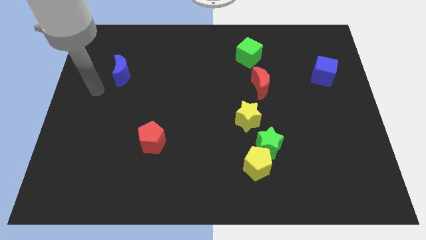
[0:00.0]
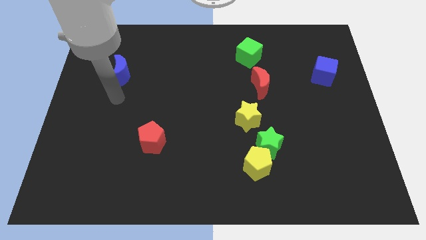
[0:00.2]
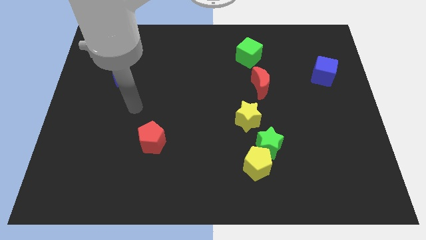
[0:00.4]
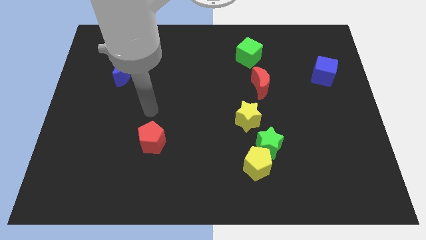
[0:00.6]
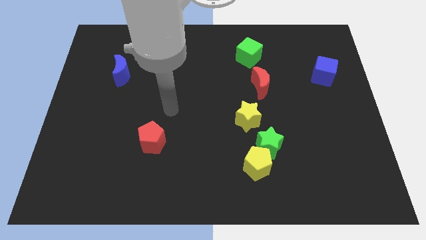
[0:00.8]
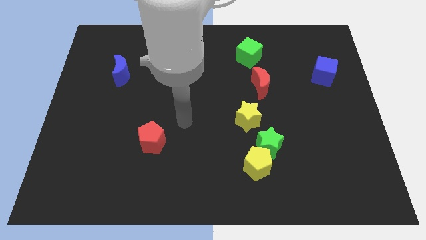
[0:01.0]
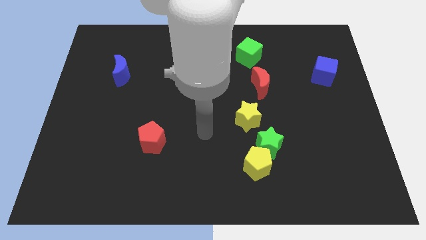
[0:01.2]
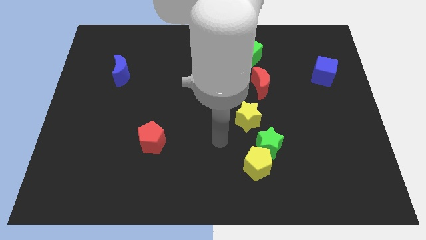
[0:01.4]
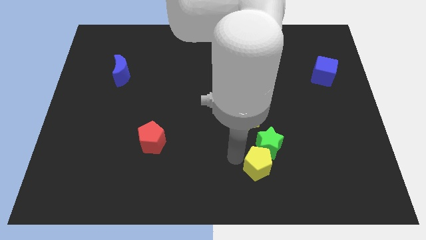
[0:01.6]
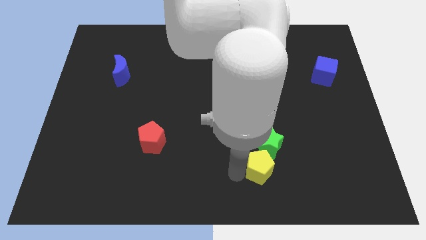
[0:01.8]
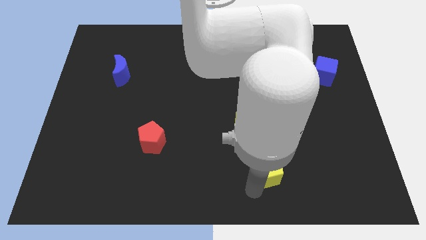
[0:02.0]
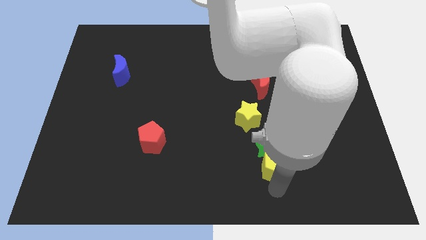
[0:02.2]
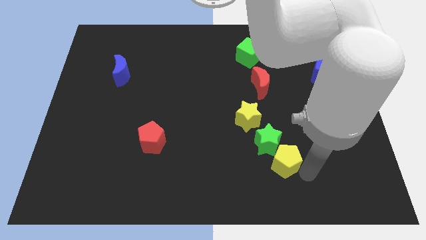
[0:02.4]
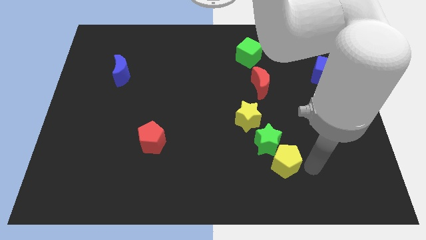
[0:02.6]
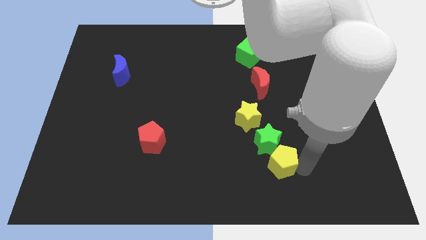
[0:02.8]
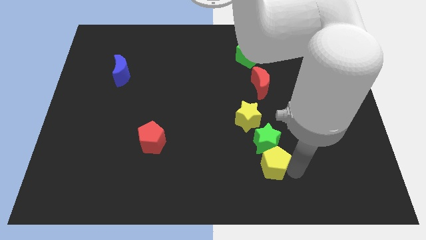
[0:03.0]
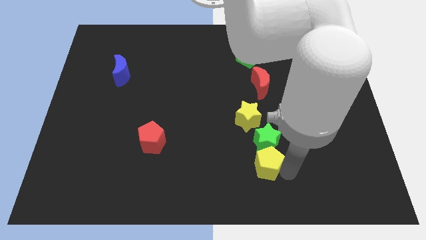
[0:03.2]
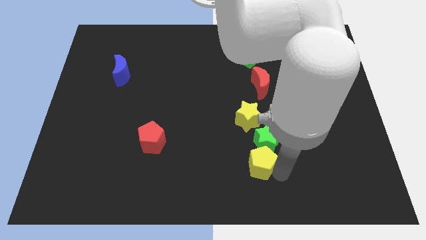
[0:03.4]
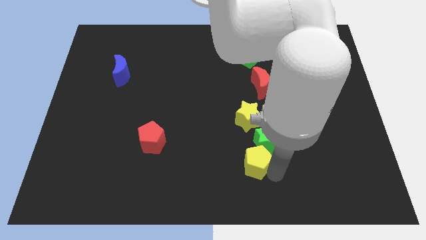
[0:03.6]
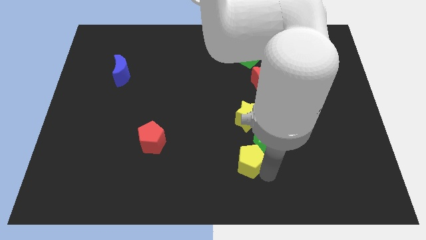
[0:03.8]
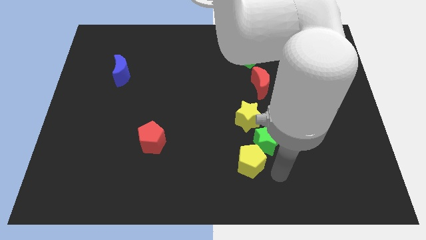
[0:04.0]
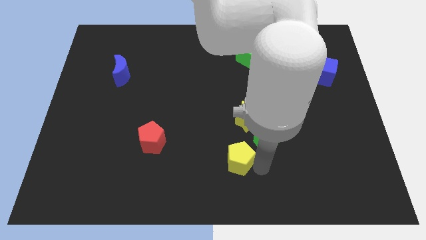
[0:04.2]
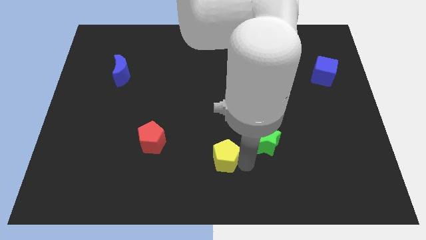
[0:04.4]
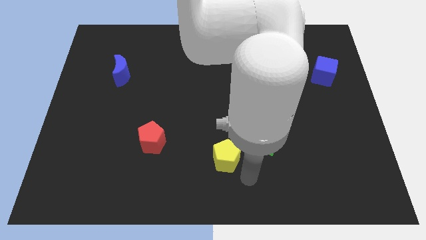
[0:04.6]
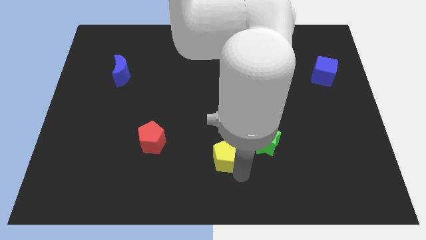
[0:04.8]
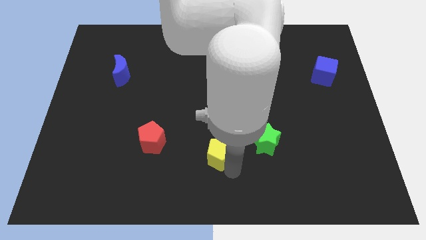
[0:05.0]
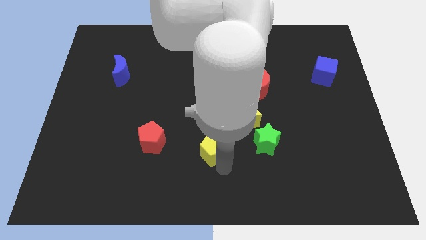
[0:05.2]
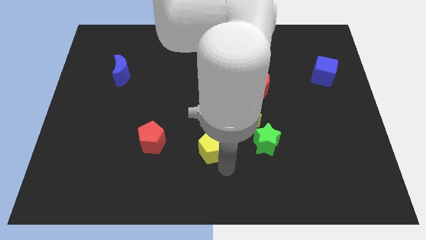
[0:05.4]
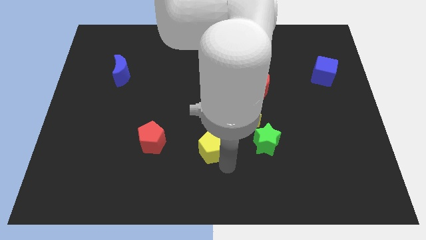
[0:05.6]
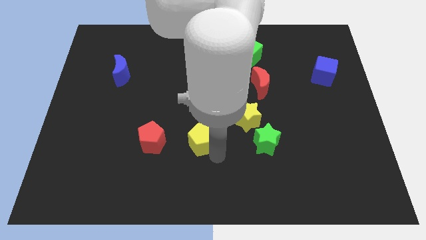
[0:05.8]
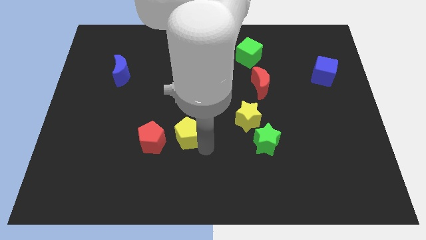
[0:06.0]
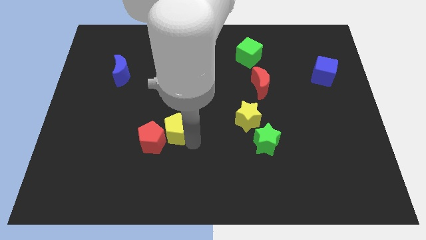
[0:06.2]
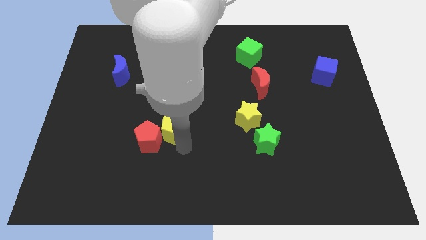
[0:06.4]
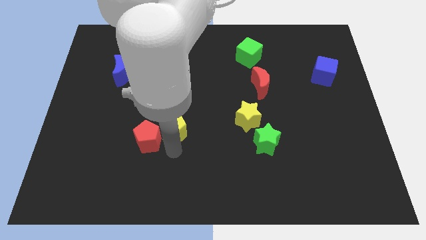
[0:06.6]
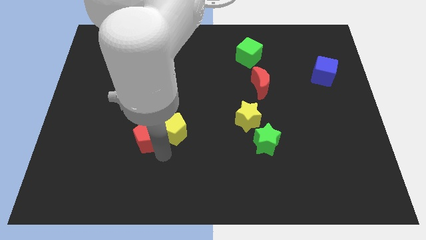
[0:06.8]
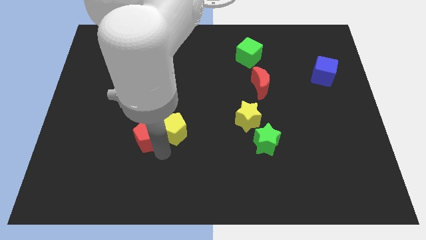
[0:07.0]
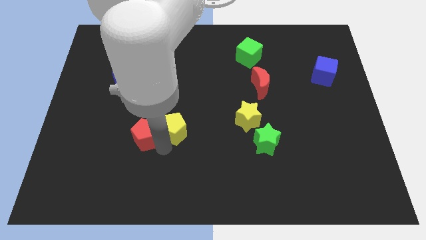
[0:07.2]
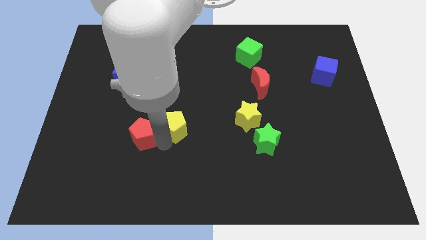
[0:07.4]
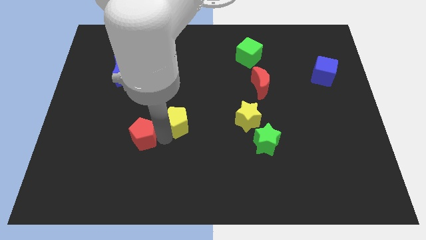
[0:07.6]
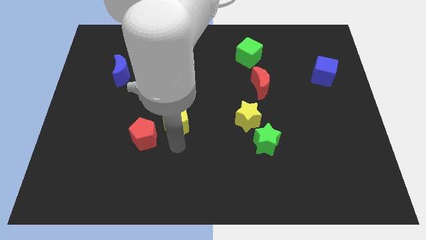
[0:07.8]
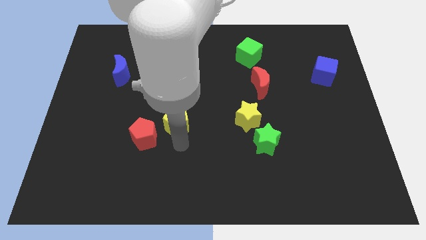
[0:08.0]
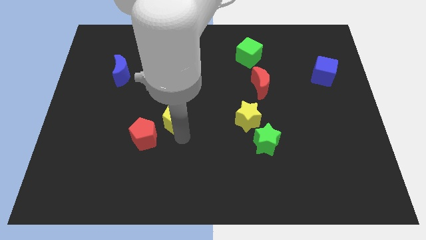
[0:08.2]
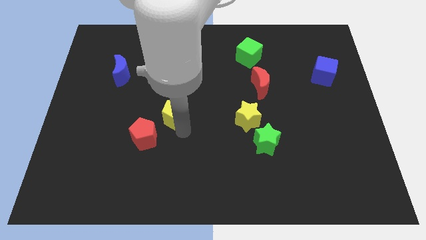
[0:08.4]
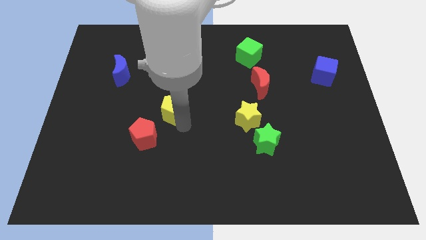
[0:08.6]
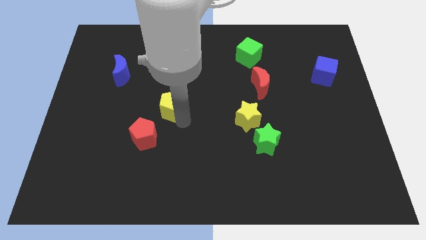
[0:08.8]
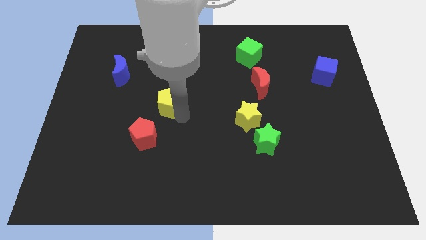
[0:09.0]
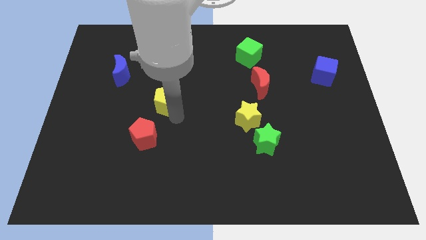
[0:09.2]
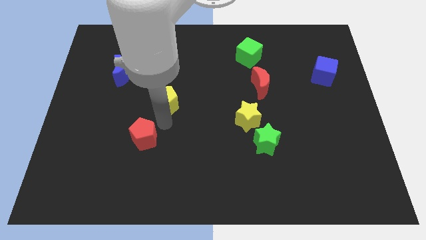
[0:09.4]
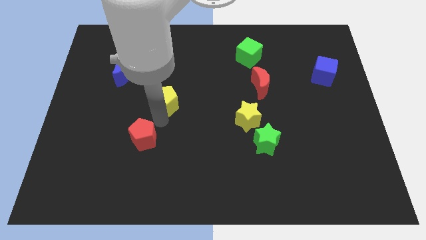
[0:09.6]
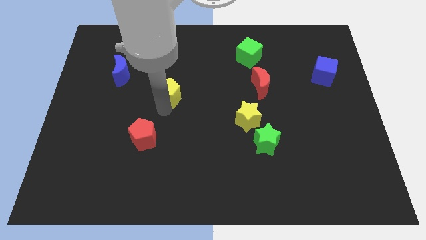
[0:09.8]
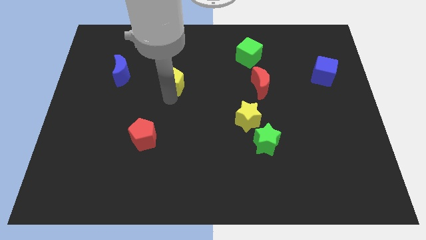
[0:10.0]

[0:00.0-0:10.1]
put the yellow pentagon to the right side of the blue moon

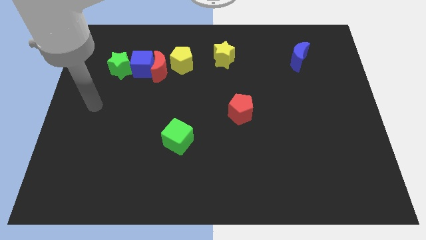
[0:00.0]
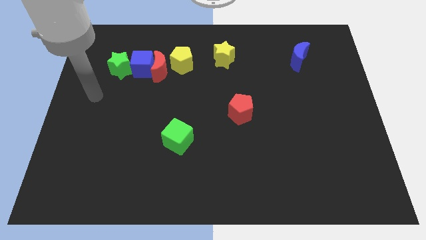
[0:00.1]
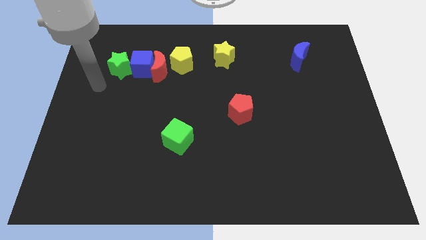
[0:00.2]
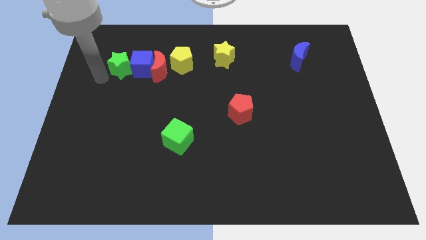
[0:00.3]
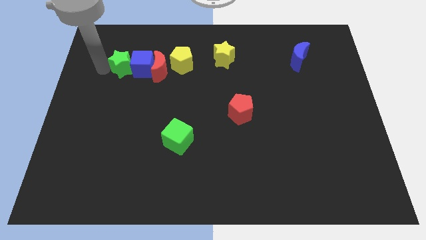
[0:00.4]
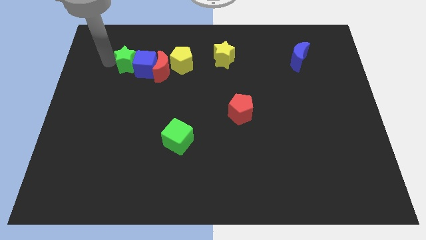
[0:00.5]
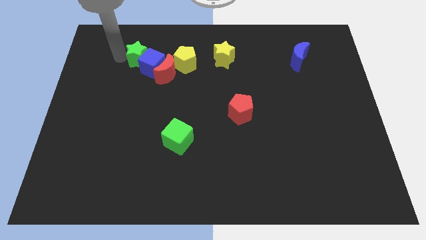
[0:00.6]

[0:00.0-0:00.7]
put the blue cube to the bottom left of the yellow pentagon
